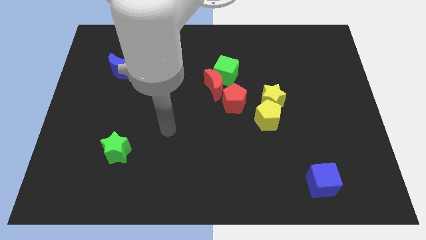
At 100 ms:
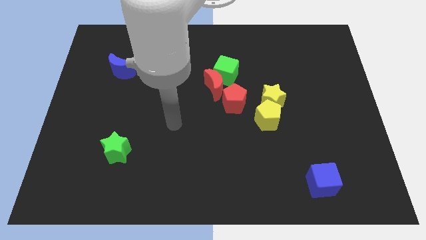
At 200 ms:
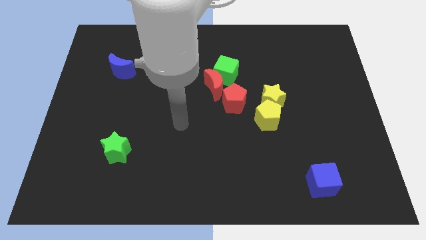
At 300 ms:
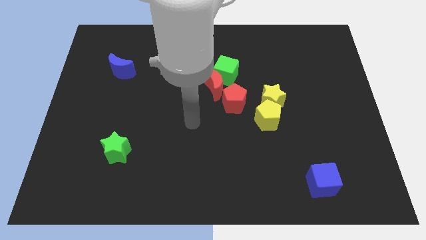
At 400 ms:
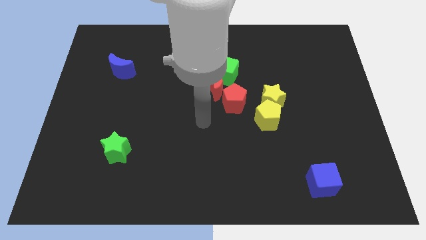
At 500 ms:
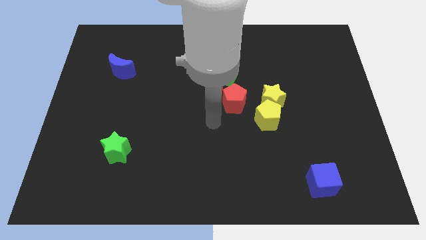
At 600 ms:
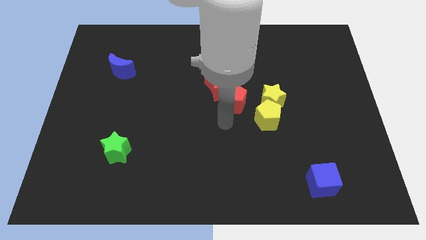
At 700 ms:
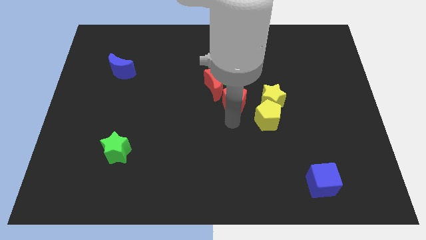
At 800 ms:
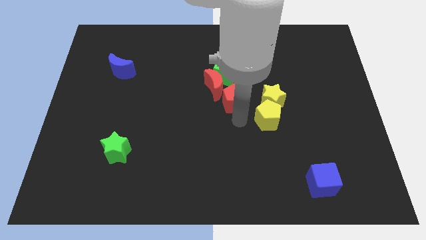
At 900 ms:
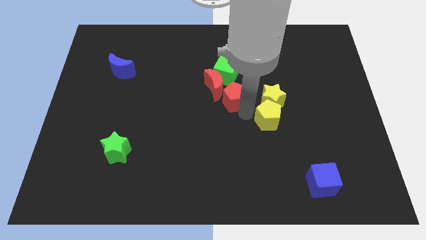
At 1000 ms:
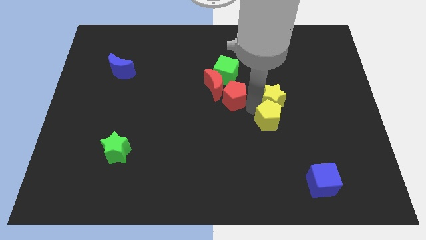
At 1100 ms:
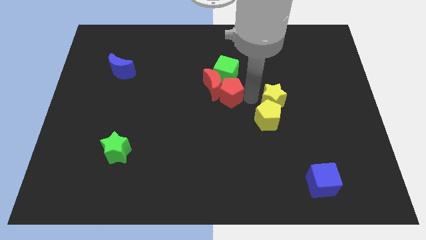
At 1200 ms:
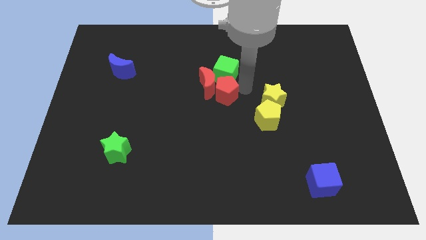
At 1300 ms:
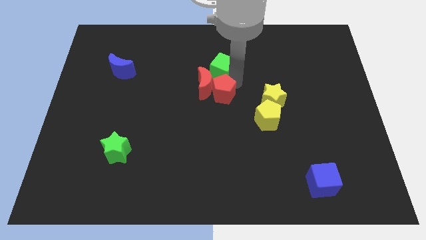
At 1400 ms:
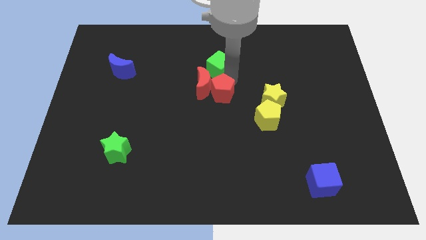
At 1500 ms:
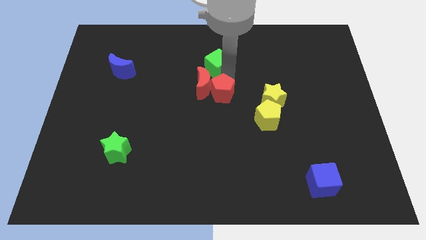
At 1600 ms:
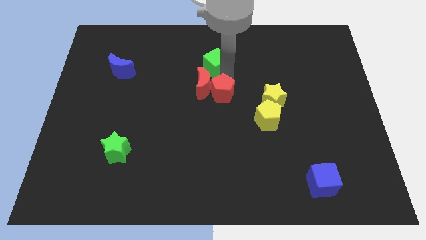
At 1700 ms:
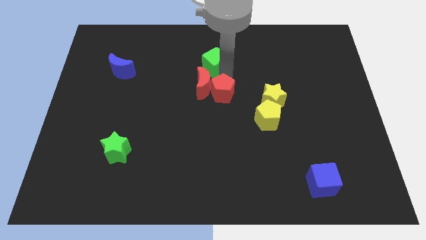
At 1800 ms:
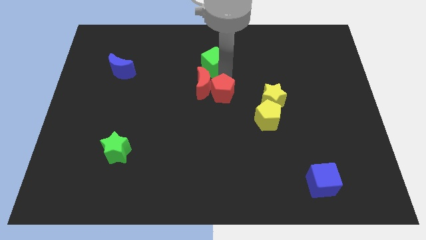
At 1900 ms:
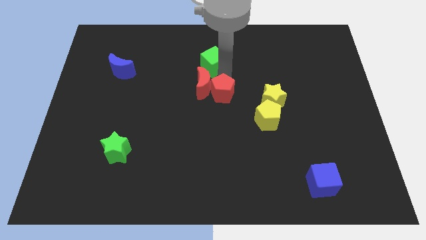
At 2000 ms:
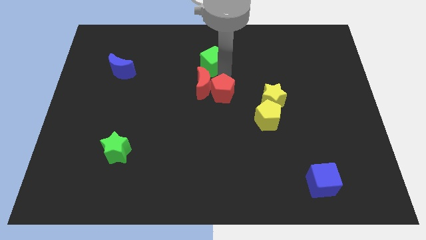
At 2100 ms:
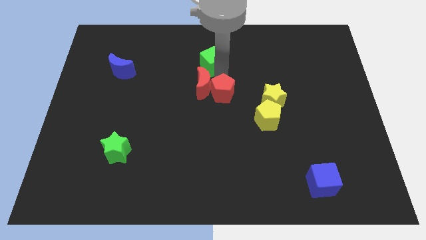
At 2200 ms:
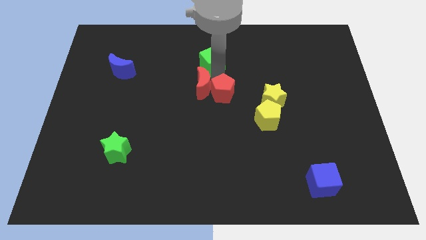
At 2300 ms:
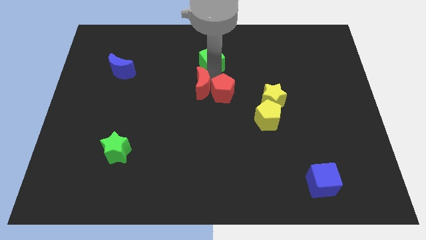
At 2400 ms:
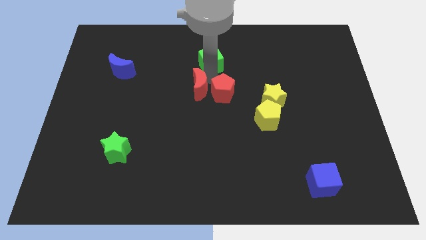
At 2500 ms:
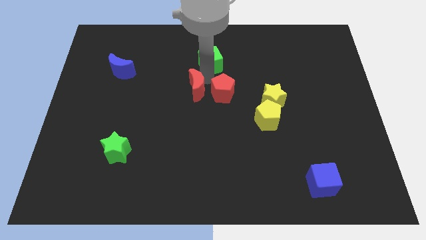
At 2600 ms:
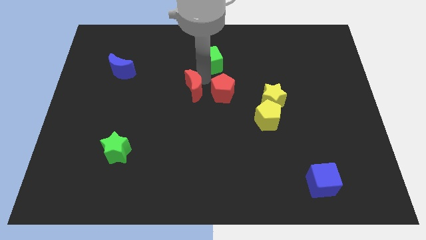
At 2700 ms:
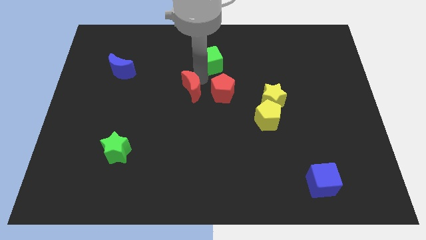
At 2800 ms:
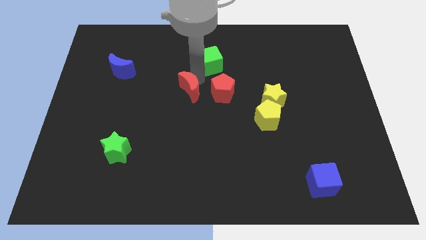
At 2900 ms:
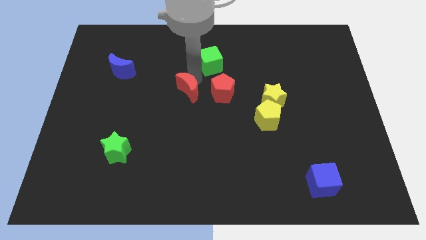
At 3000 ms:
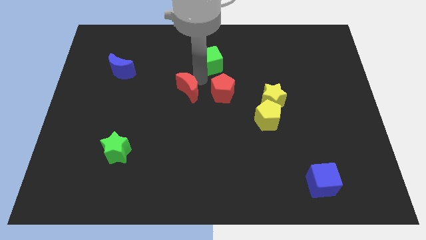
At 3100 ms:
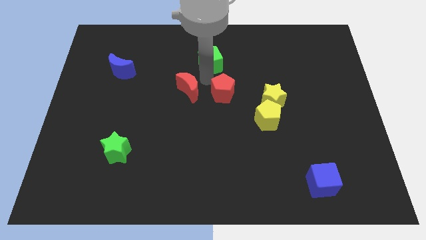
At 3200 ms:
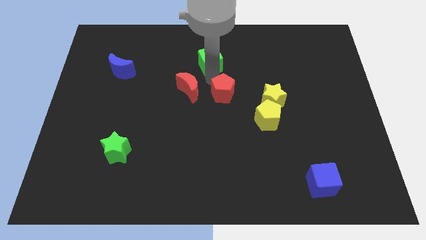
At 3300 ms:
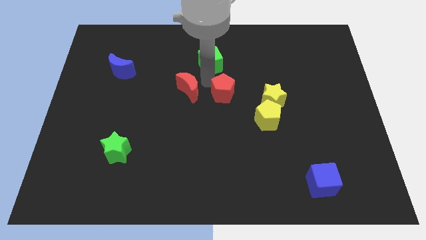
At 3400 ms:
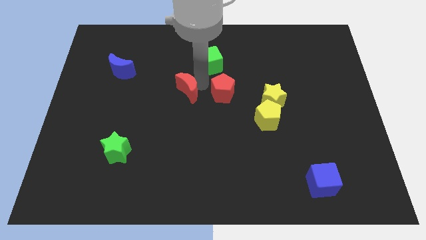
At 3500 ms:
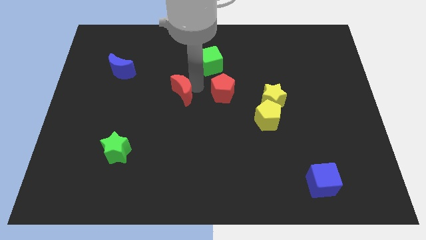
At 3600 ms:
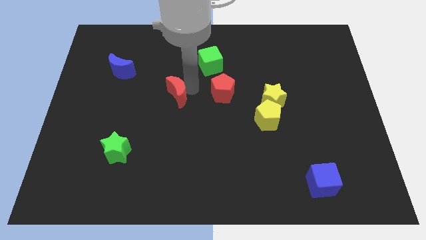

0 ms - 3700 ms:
move the red moon away from the green cube and red pentagon

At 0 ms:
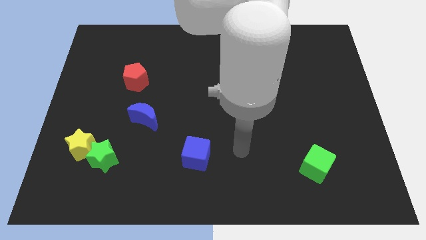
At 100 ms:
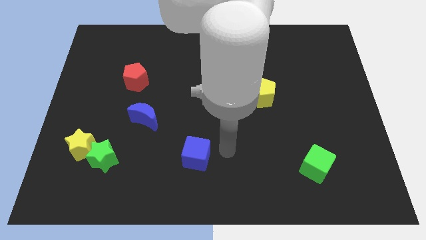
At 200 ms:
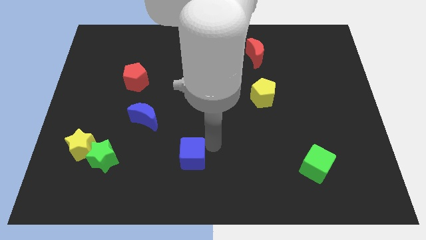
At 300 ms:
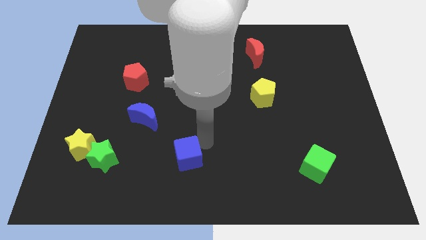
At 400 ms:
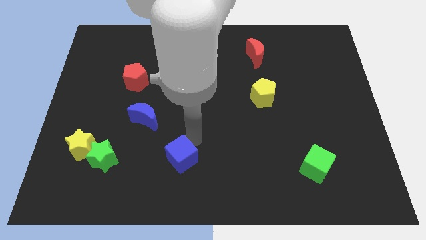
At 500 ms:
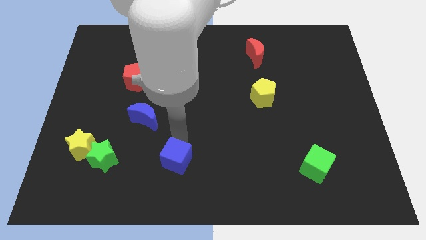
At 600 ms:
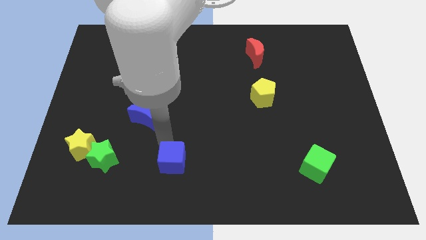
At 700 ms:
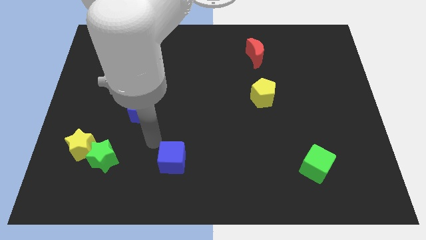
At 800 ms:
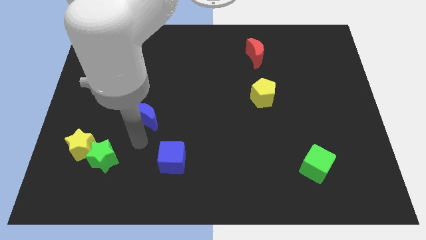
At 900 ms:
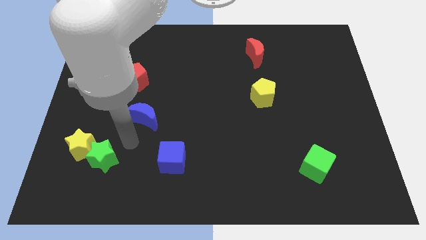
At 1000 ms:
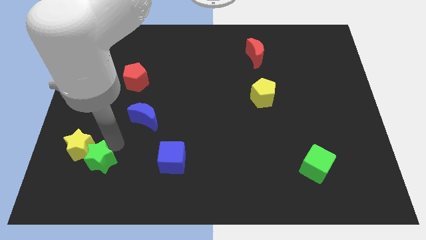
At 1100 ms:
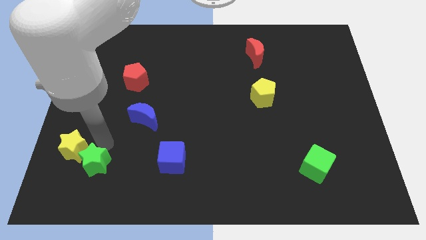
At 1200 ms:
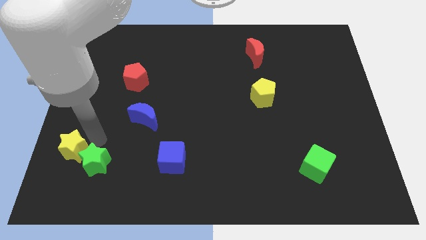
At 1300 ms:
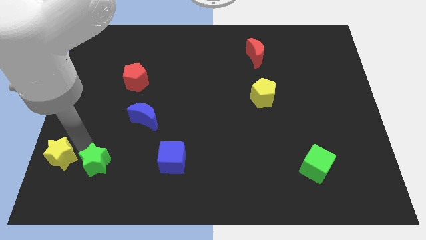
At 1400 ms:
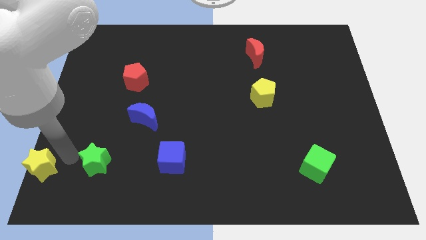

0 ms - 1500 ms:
move the green star away from the yellow star

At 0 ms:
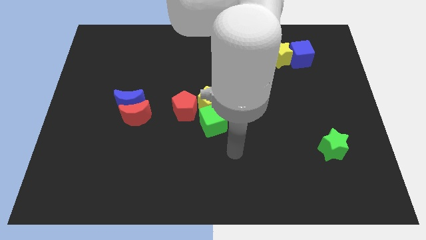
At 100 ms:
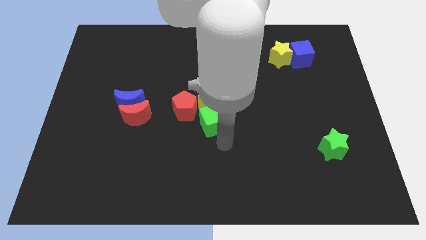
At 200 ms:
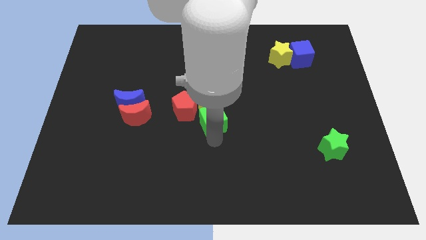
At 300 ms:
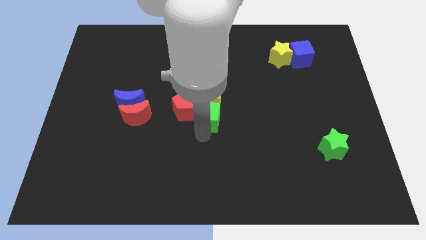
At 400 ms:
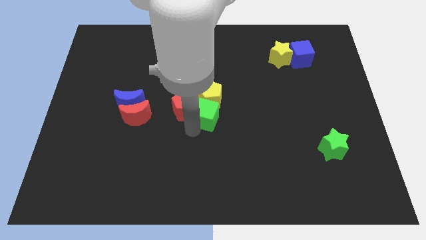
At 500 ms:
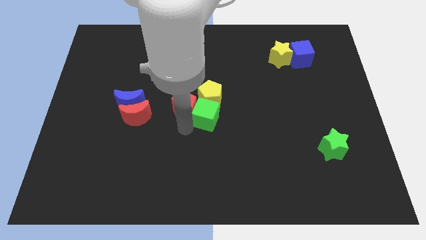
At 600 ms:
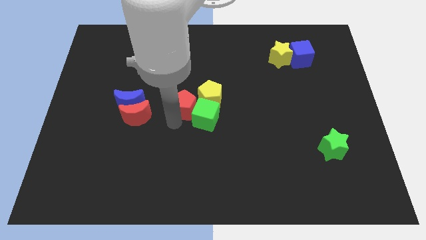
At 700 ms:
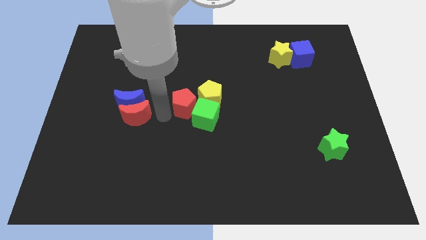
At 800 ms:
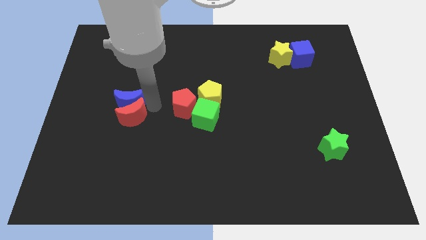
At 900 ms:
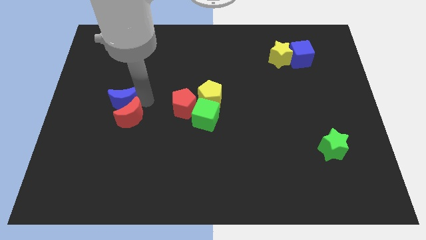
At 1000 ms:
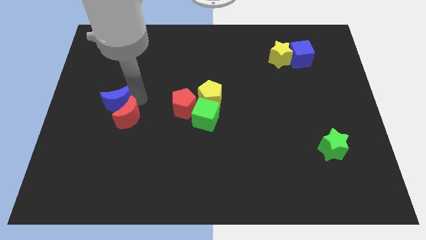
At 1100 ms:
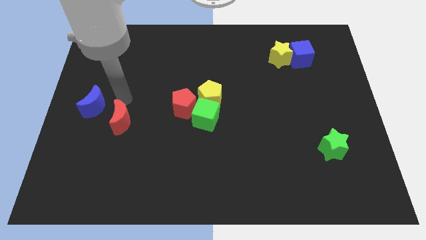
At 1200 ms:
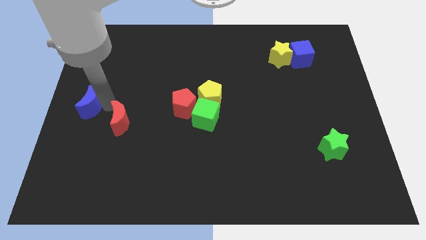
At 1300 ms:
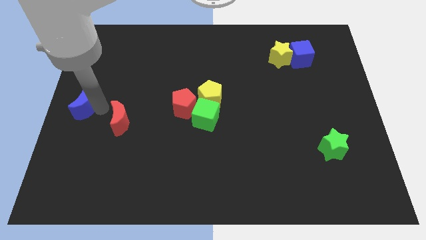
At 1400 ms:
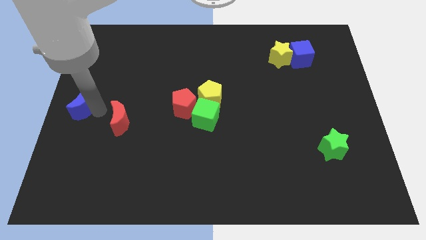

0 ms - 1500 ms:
separate the red moon from the blue moon

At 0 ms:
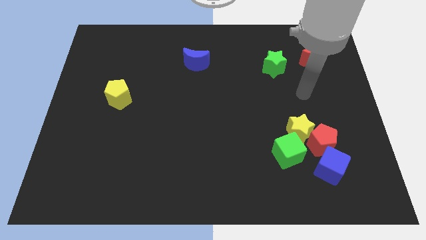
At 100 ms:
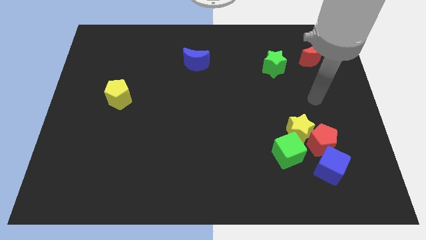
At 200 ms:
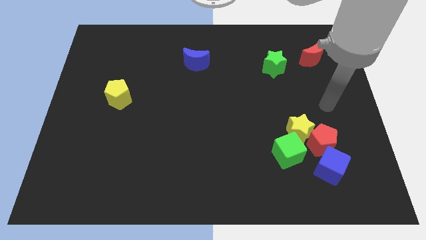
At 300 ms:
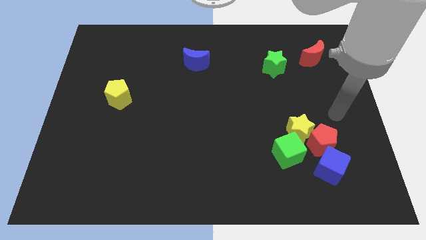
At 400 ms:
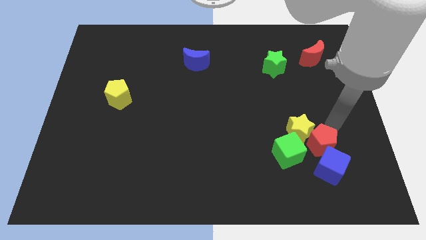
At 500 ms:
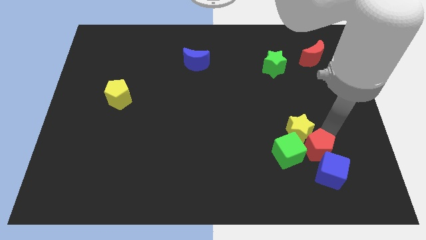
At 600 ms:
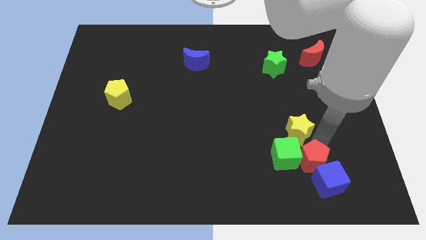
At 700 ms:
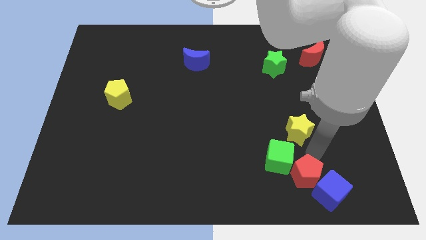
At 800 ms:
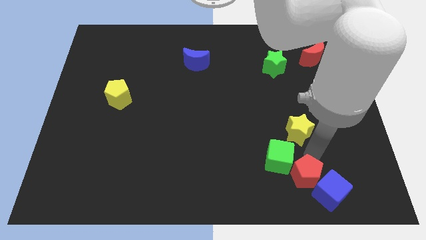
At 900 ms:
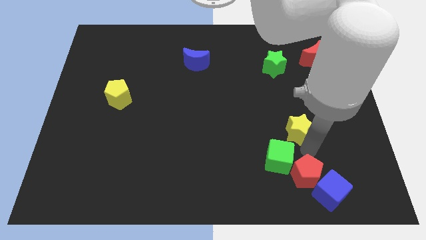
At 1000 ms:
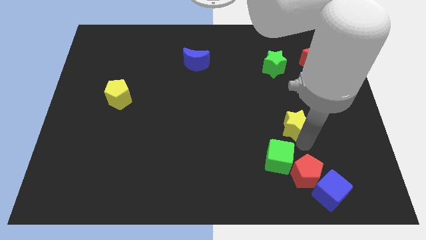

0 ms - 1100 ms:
pull the yellow star apart from the red pentagon and green cube

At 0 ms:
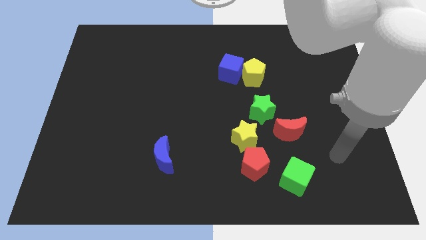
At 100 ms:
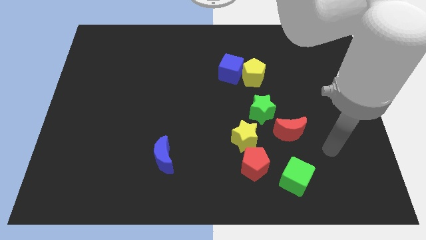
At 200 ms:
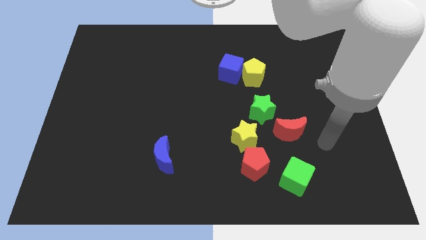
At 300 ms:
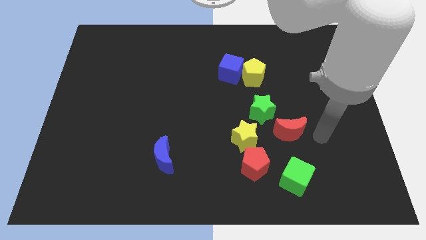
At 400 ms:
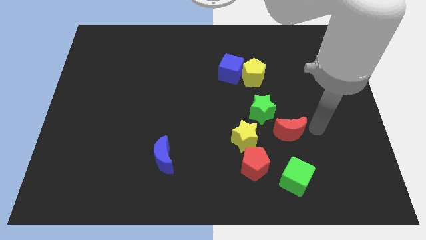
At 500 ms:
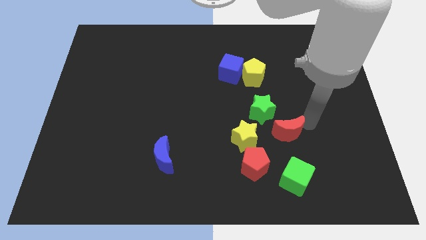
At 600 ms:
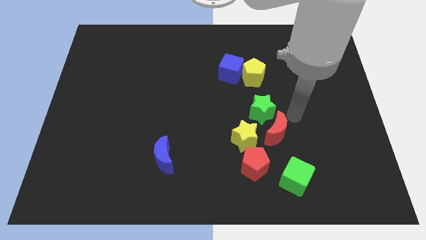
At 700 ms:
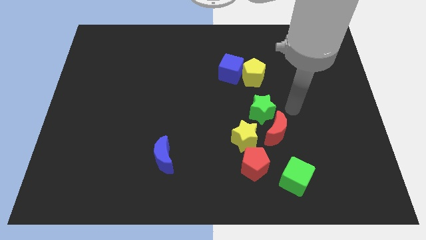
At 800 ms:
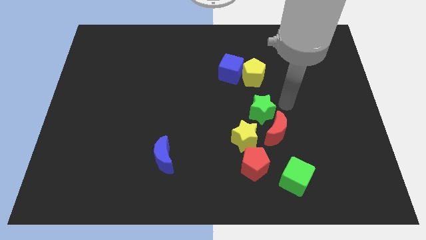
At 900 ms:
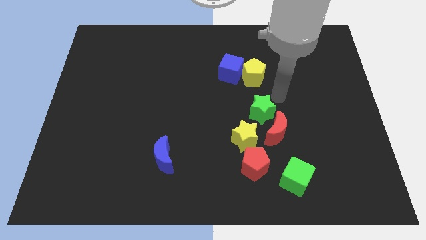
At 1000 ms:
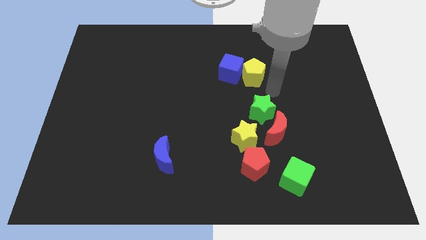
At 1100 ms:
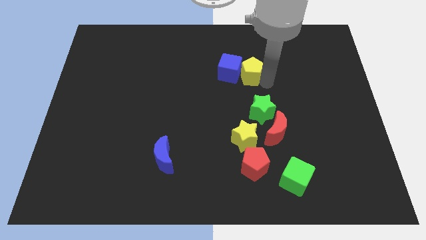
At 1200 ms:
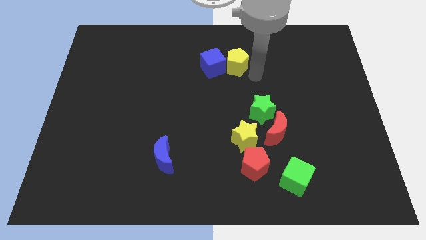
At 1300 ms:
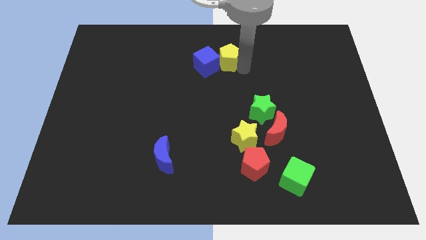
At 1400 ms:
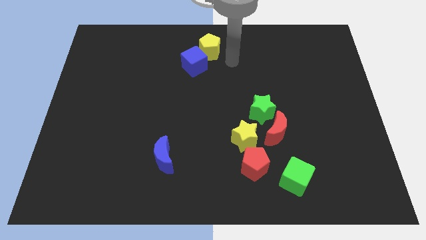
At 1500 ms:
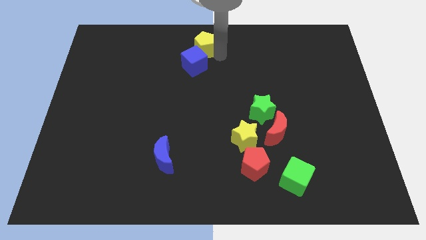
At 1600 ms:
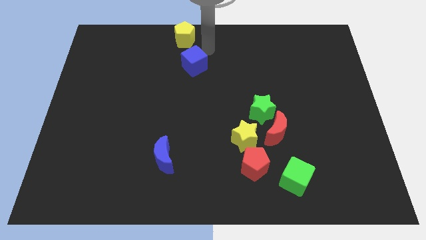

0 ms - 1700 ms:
pull the blue cube apart from the yellow pentagon
